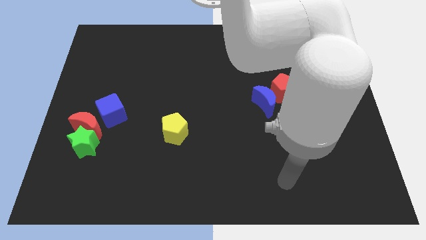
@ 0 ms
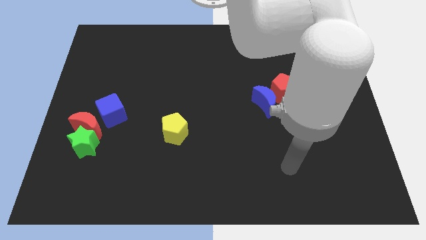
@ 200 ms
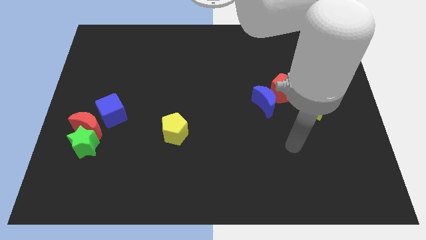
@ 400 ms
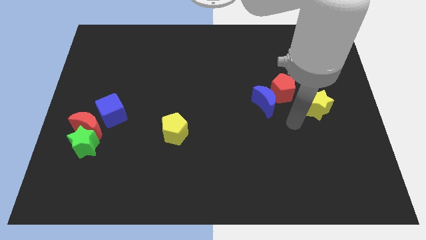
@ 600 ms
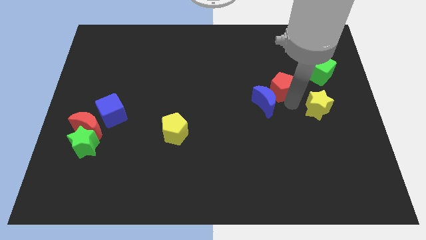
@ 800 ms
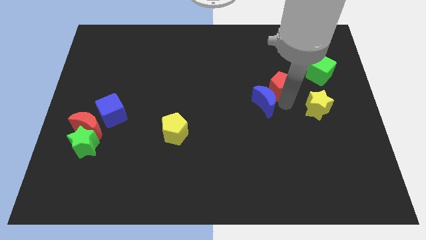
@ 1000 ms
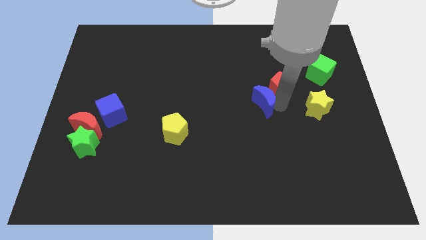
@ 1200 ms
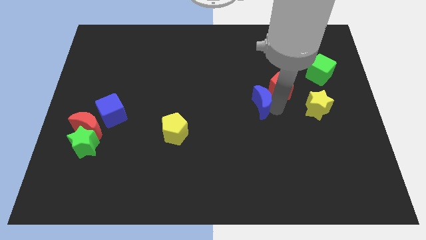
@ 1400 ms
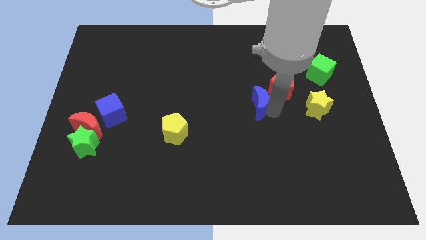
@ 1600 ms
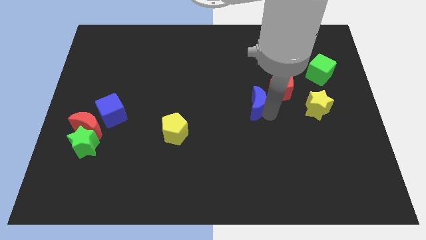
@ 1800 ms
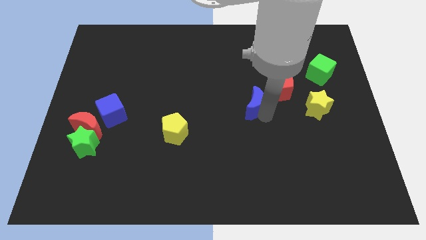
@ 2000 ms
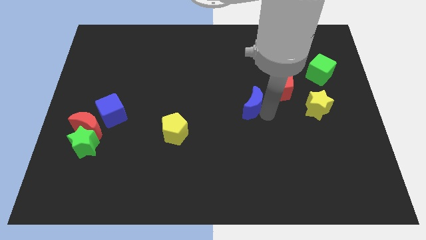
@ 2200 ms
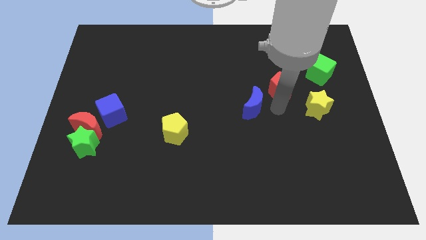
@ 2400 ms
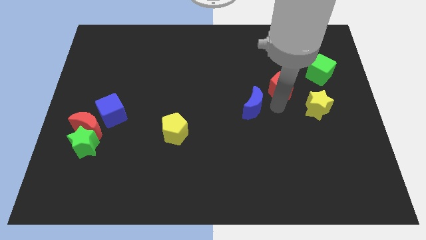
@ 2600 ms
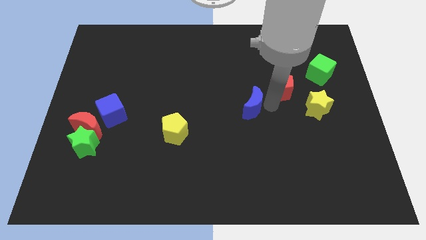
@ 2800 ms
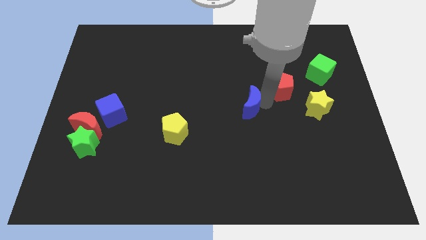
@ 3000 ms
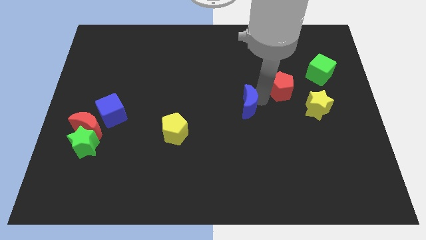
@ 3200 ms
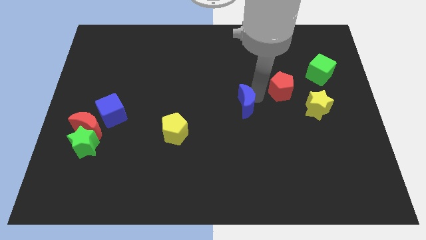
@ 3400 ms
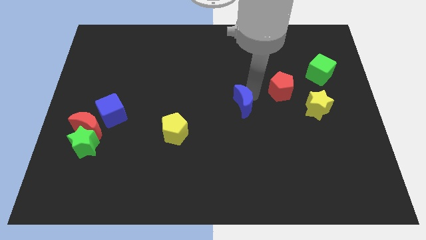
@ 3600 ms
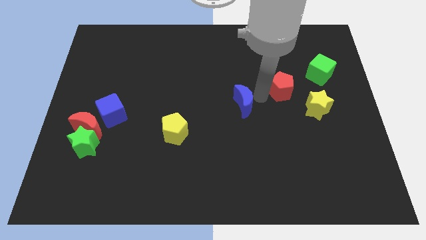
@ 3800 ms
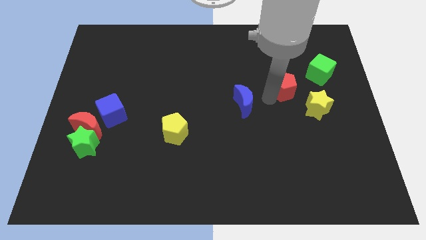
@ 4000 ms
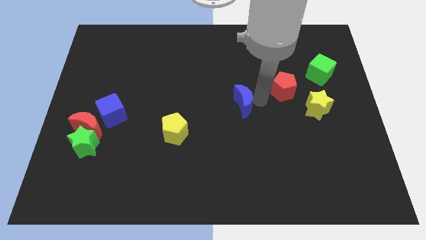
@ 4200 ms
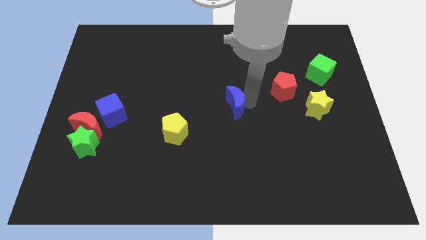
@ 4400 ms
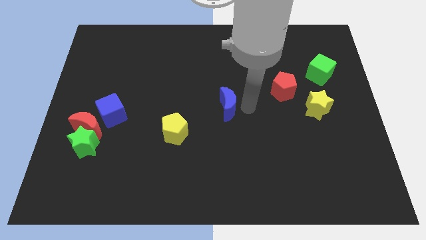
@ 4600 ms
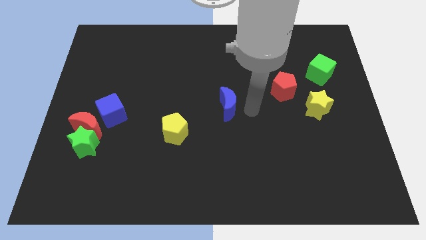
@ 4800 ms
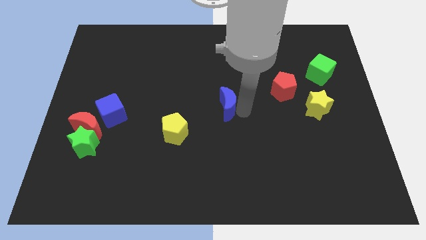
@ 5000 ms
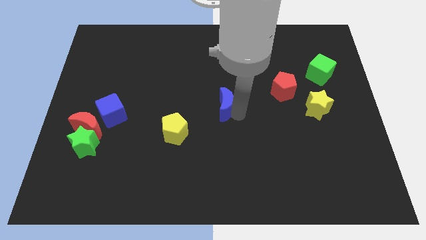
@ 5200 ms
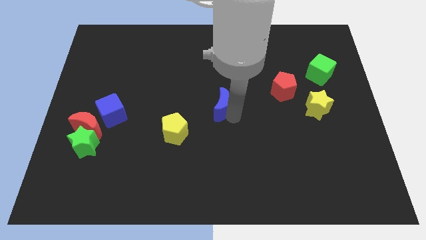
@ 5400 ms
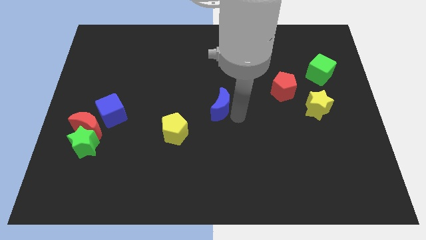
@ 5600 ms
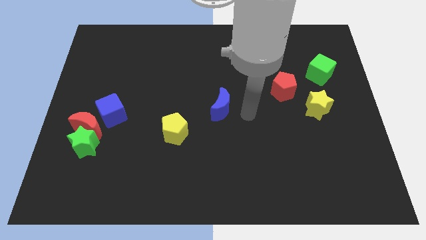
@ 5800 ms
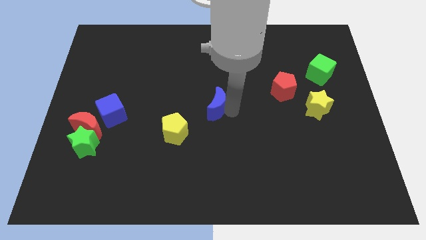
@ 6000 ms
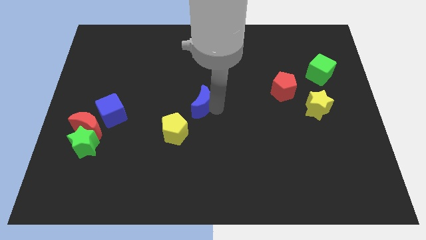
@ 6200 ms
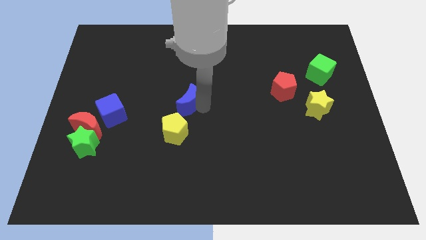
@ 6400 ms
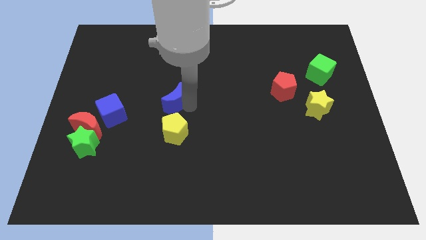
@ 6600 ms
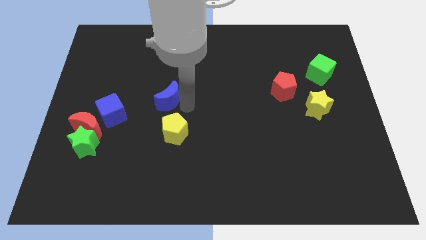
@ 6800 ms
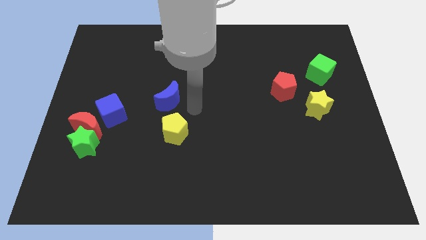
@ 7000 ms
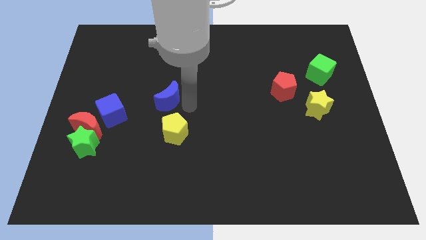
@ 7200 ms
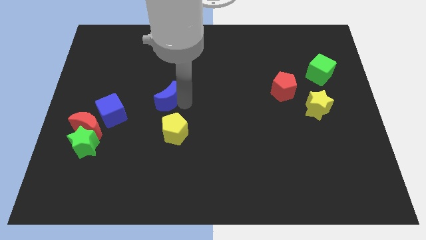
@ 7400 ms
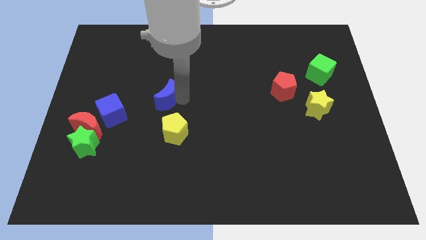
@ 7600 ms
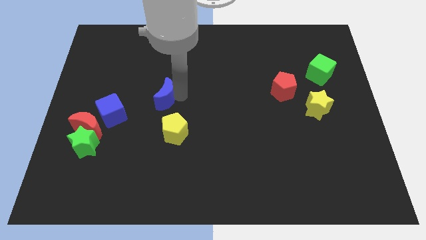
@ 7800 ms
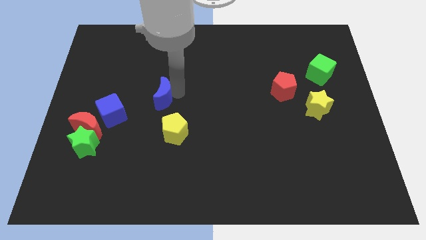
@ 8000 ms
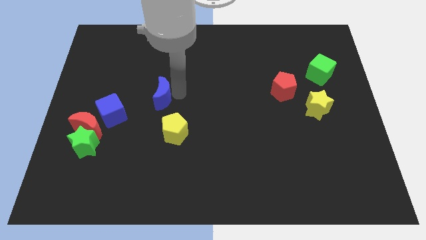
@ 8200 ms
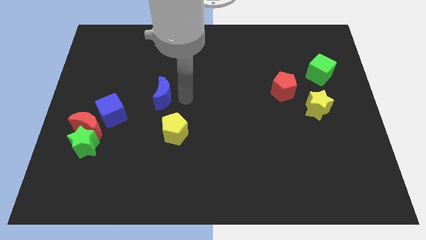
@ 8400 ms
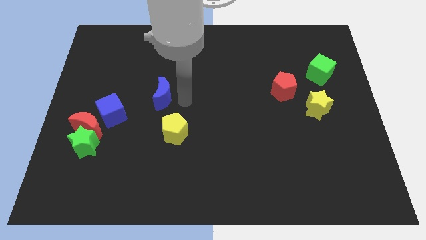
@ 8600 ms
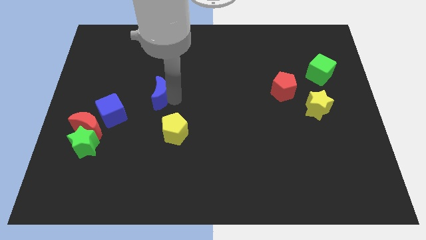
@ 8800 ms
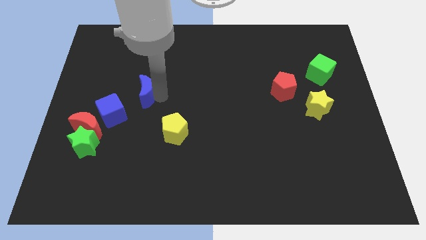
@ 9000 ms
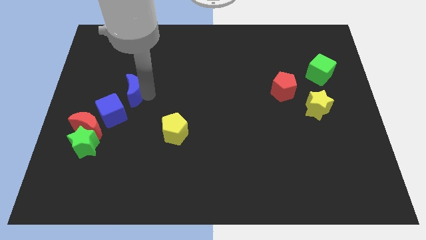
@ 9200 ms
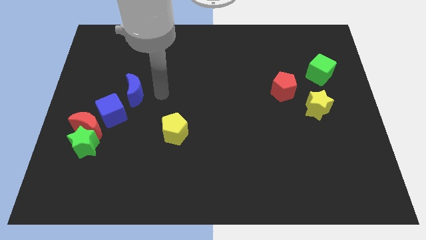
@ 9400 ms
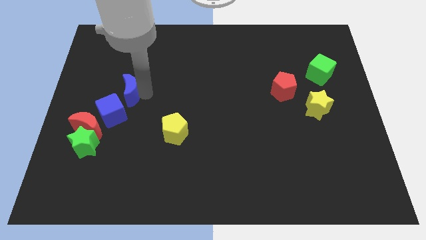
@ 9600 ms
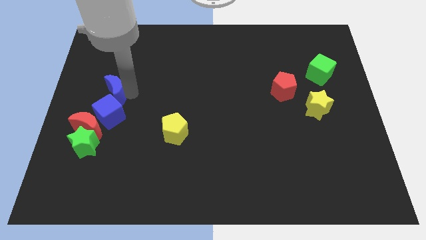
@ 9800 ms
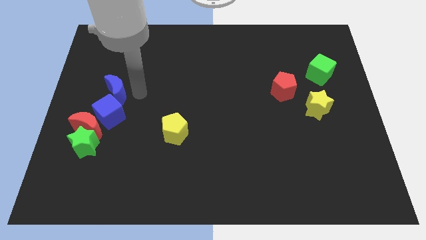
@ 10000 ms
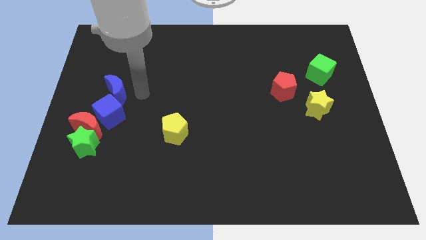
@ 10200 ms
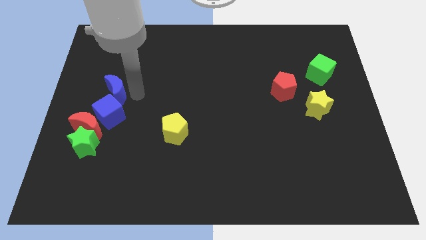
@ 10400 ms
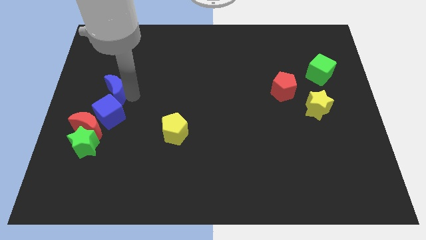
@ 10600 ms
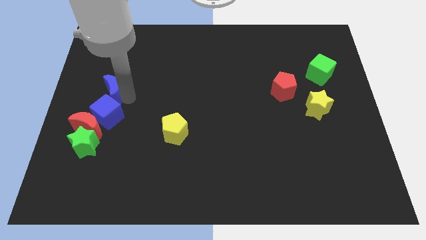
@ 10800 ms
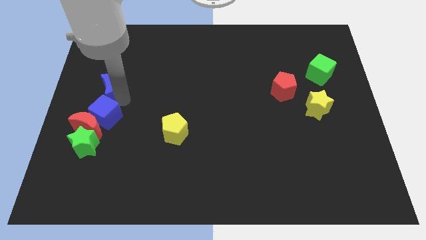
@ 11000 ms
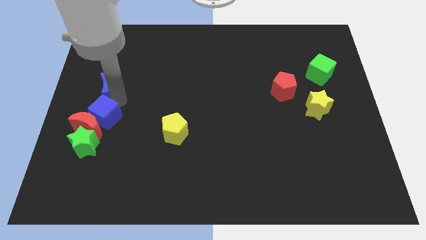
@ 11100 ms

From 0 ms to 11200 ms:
push the blue moon to the left side of the board

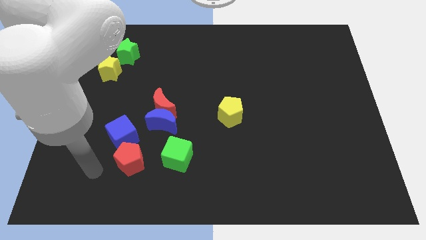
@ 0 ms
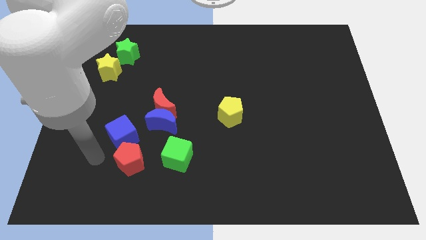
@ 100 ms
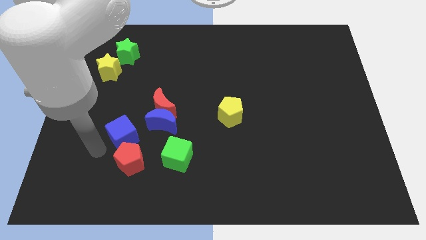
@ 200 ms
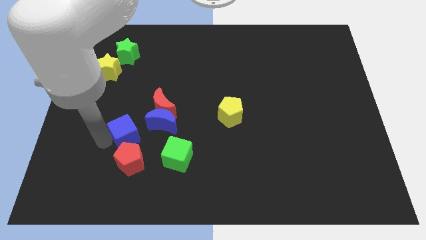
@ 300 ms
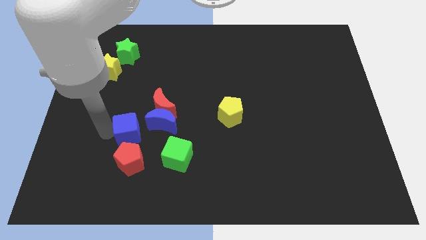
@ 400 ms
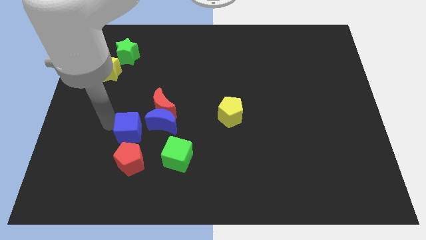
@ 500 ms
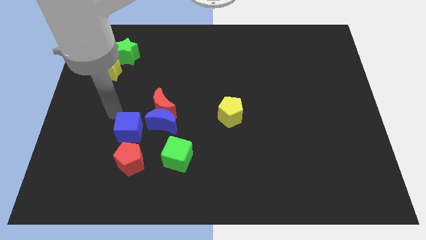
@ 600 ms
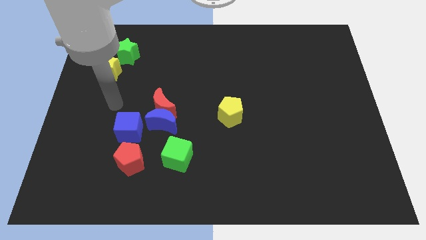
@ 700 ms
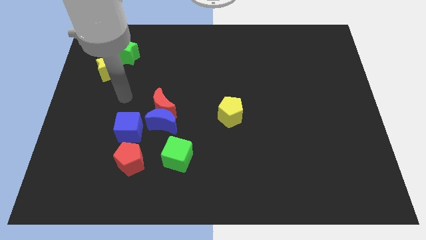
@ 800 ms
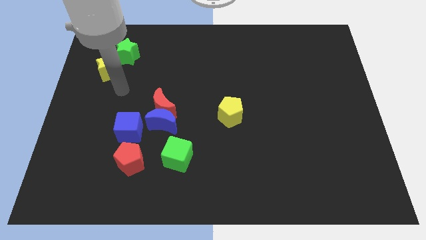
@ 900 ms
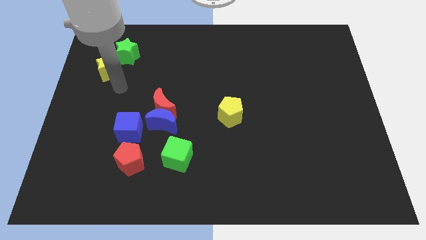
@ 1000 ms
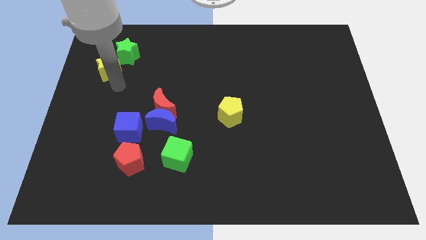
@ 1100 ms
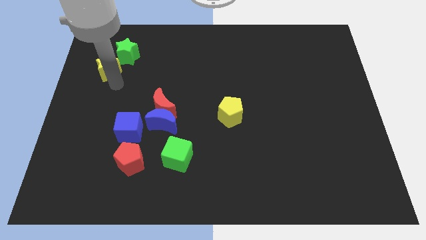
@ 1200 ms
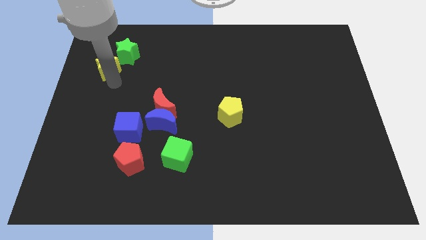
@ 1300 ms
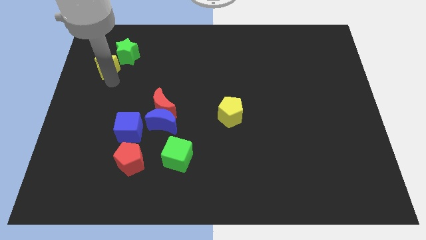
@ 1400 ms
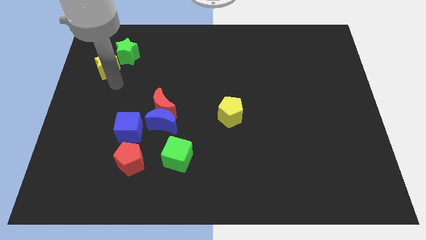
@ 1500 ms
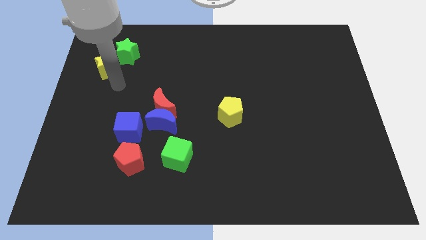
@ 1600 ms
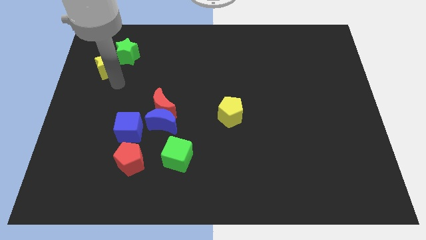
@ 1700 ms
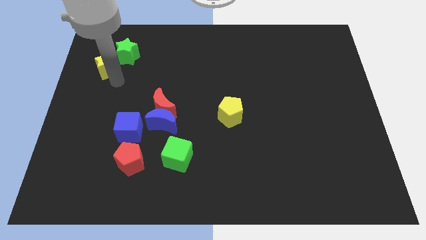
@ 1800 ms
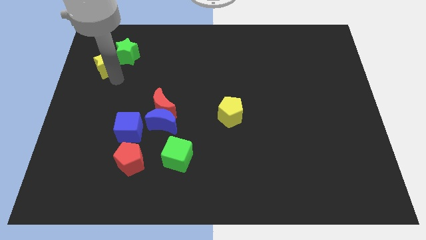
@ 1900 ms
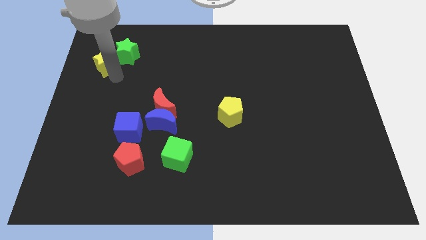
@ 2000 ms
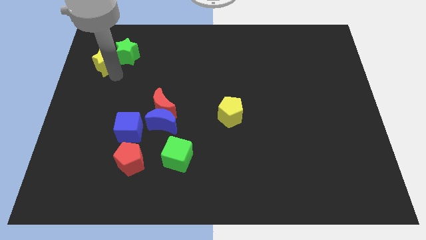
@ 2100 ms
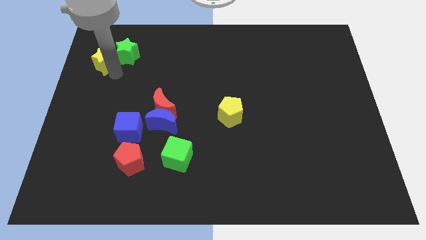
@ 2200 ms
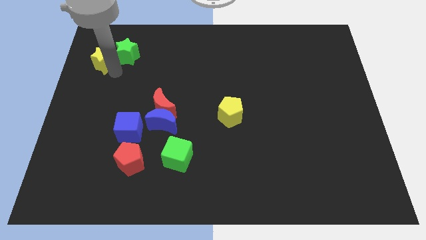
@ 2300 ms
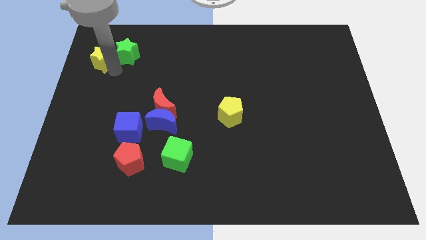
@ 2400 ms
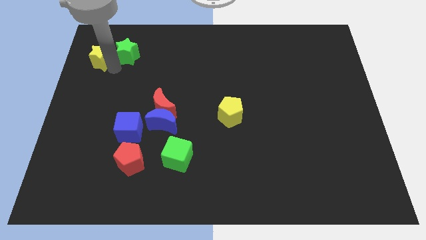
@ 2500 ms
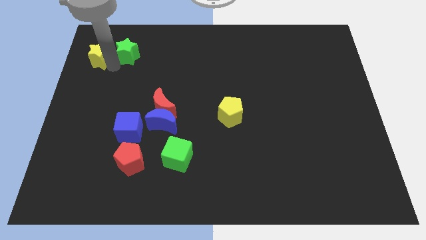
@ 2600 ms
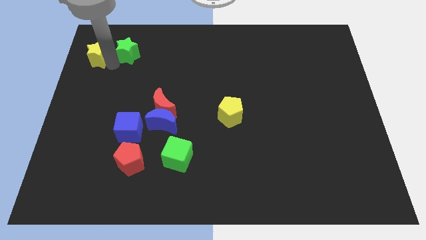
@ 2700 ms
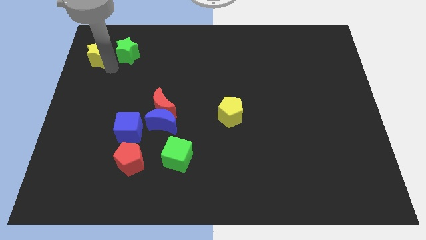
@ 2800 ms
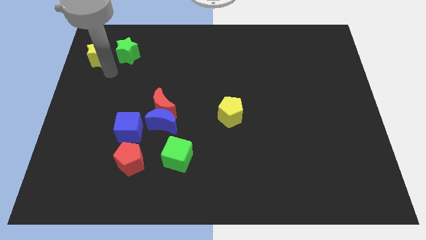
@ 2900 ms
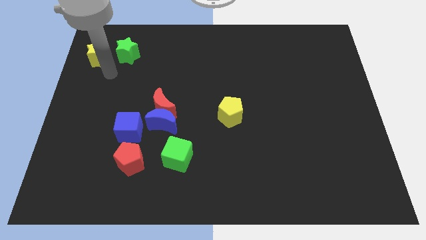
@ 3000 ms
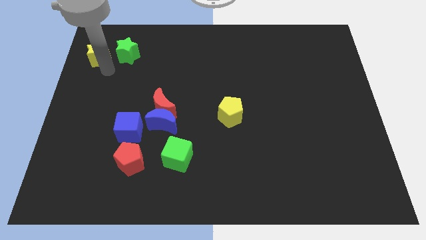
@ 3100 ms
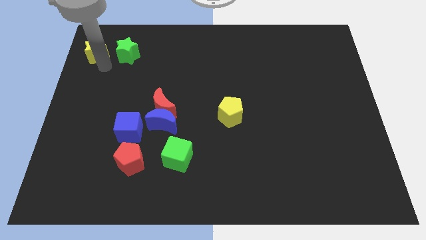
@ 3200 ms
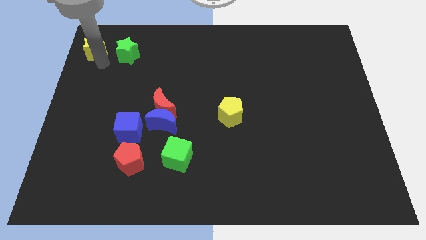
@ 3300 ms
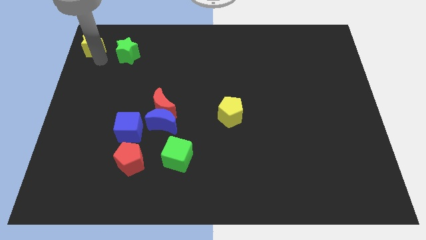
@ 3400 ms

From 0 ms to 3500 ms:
put the yellow star to the upper left corner
